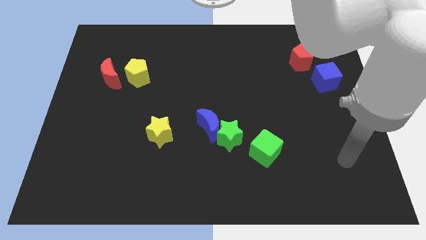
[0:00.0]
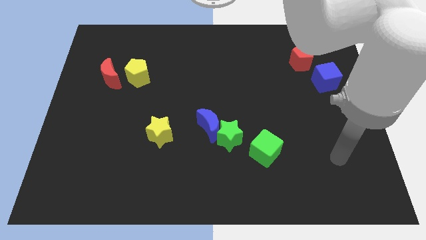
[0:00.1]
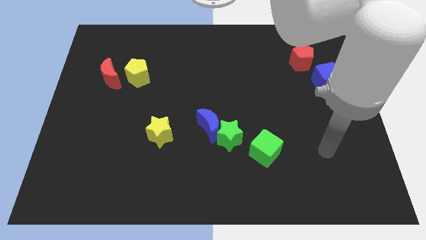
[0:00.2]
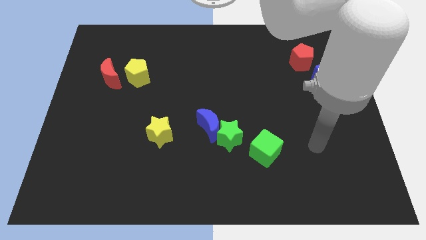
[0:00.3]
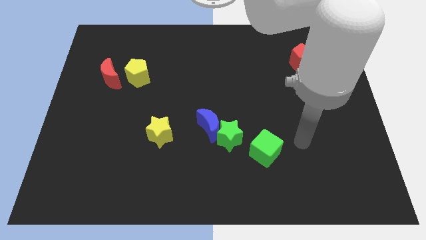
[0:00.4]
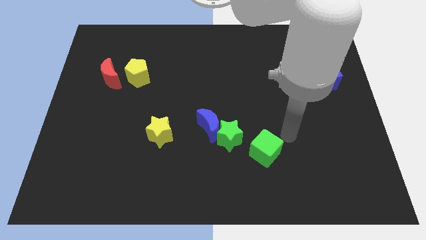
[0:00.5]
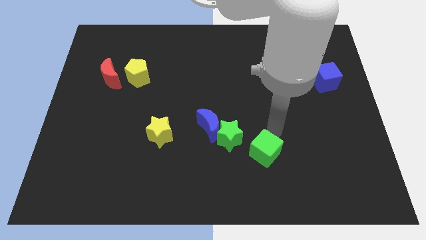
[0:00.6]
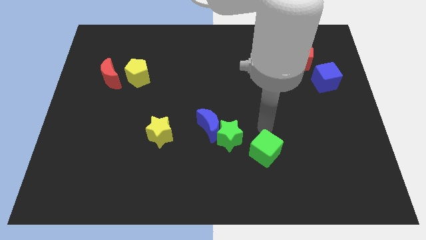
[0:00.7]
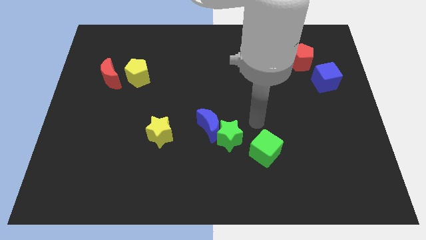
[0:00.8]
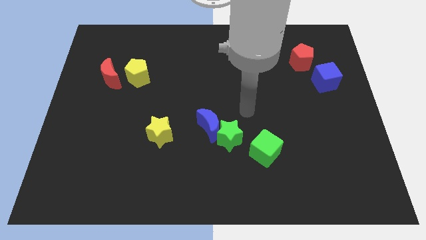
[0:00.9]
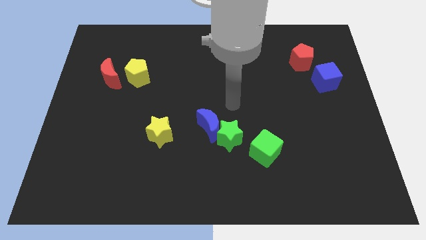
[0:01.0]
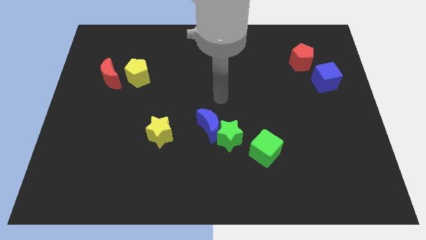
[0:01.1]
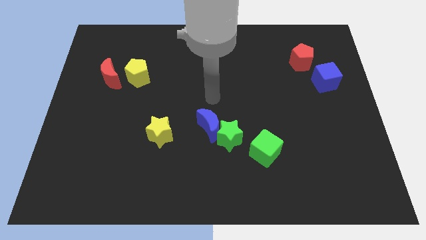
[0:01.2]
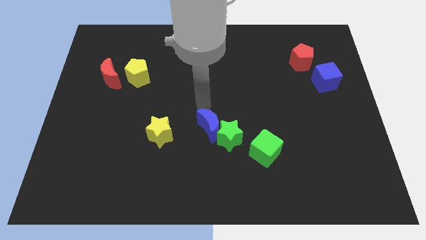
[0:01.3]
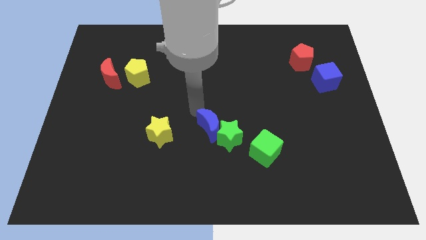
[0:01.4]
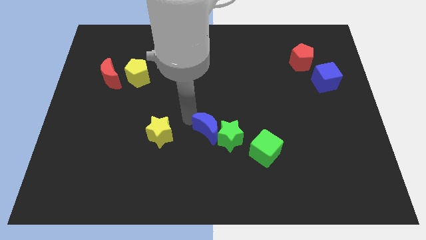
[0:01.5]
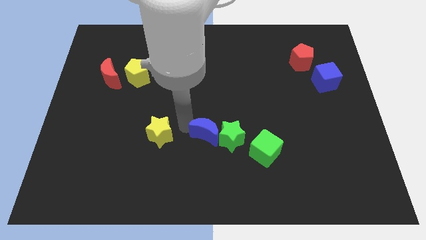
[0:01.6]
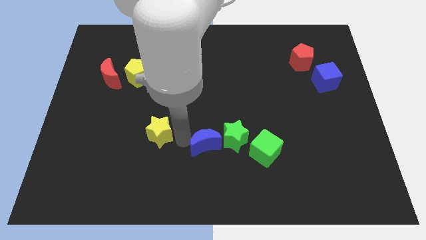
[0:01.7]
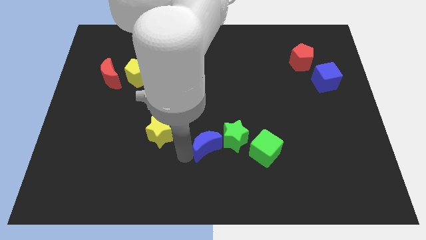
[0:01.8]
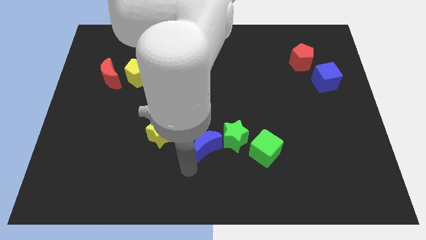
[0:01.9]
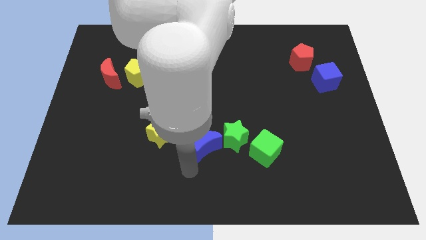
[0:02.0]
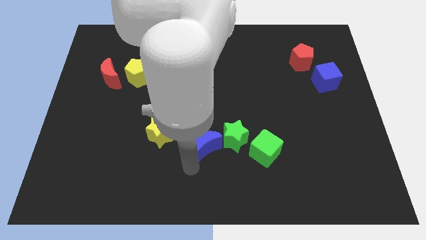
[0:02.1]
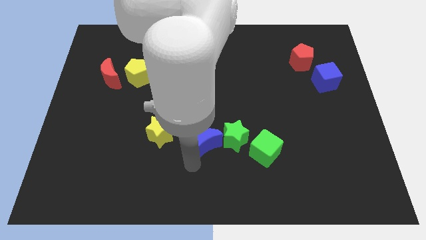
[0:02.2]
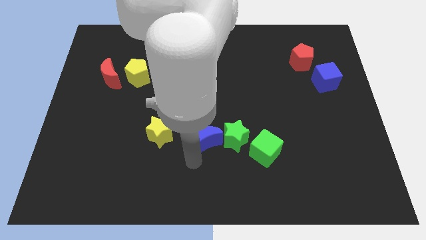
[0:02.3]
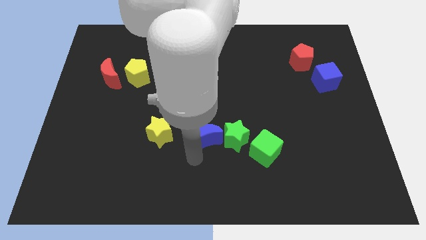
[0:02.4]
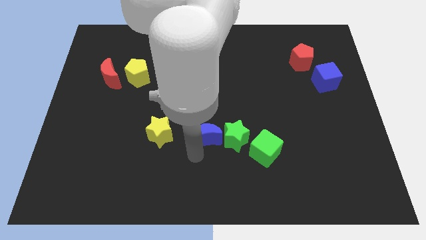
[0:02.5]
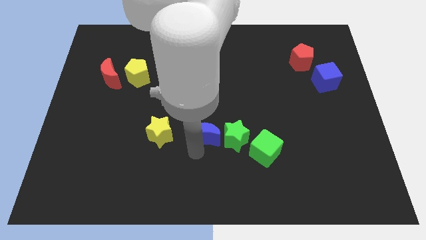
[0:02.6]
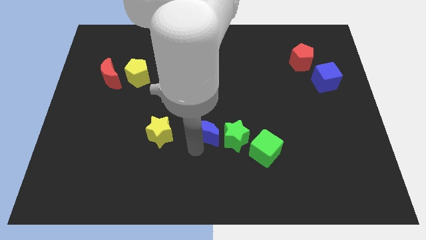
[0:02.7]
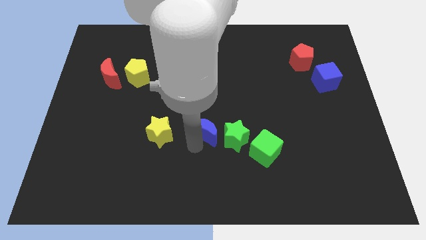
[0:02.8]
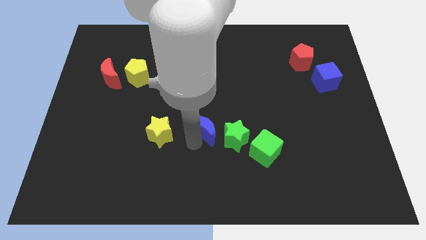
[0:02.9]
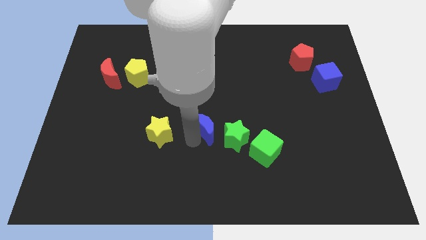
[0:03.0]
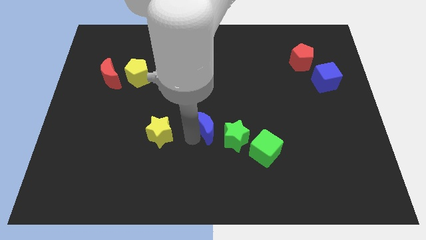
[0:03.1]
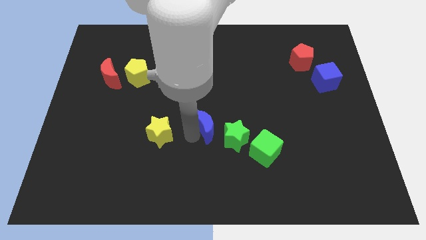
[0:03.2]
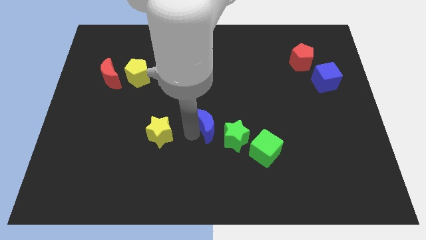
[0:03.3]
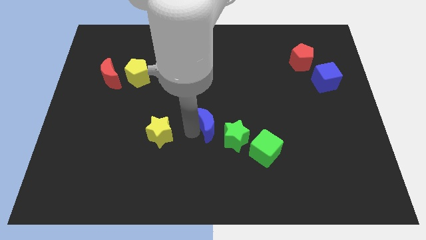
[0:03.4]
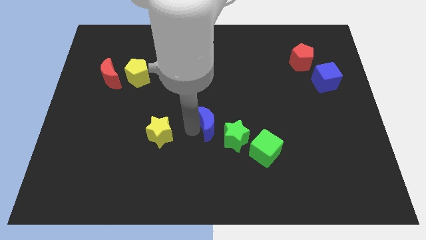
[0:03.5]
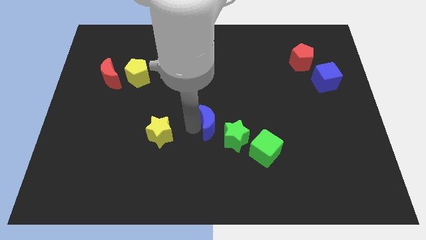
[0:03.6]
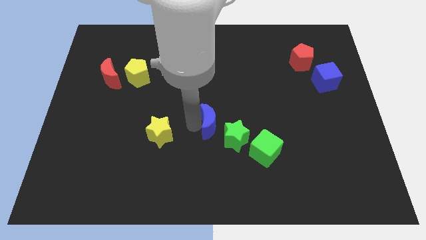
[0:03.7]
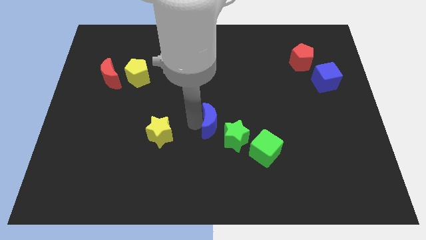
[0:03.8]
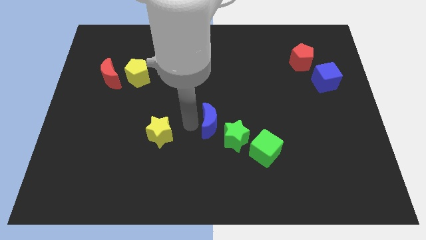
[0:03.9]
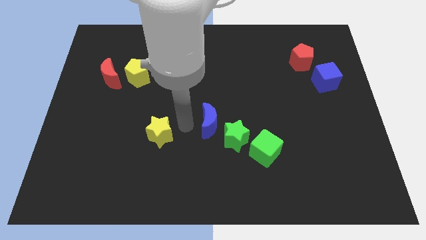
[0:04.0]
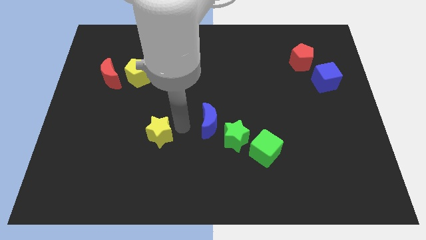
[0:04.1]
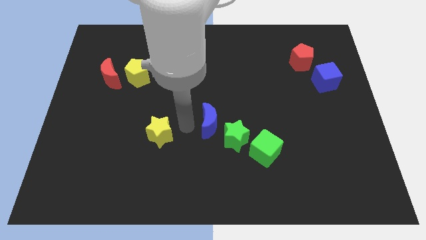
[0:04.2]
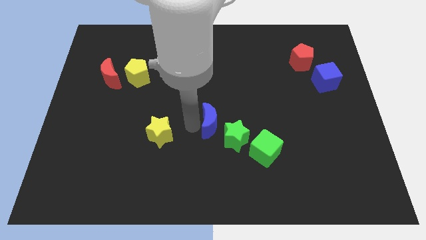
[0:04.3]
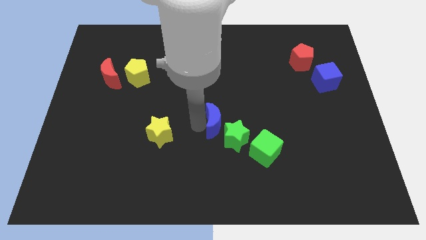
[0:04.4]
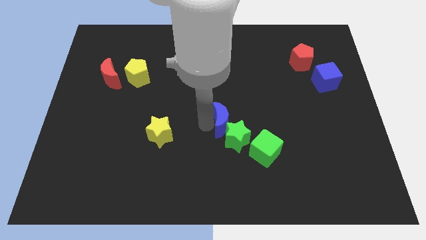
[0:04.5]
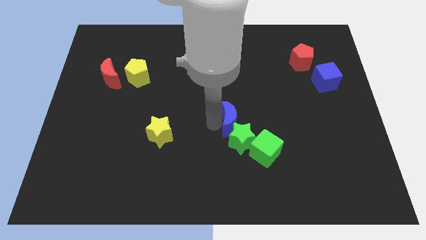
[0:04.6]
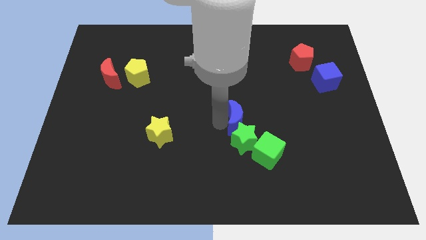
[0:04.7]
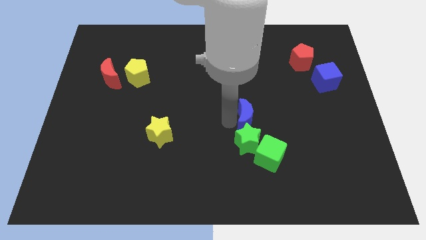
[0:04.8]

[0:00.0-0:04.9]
push the blue moon a little to the right

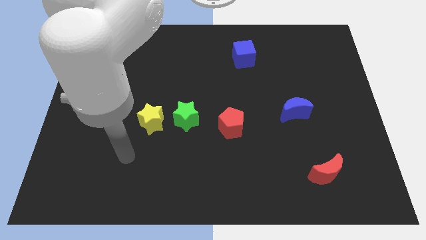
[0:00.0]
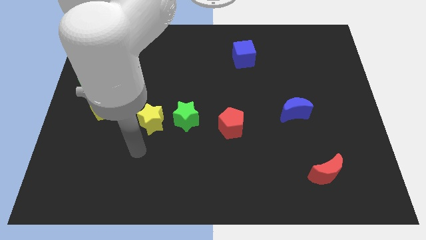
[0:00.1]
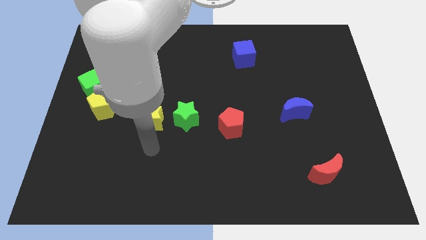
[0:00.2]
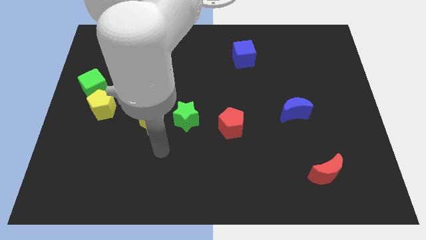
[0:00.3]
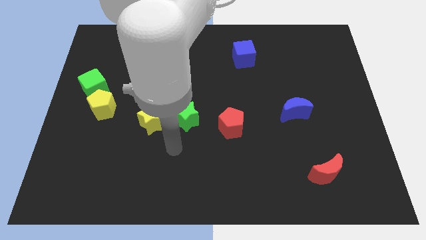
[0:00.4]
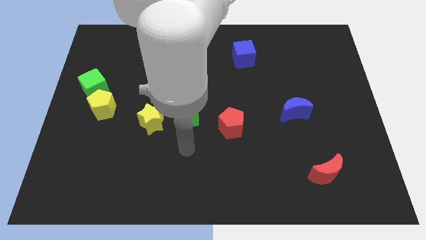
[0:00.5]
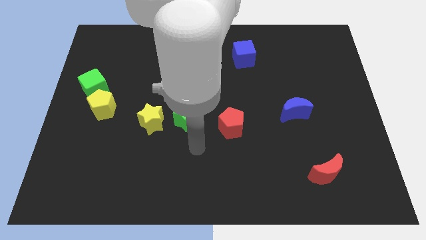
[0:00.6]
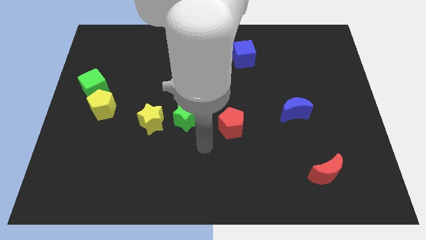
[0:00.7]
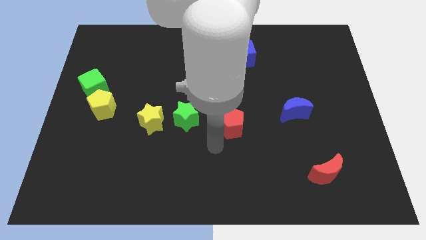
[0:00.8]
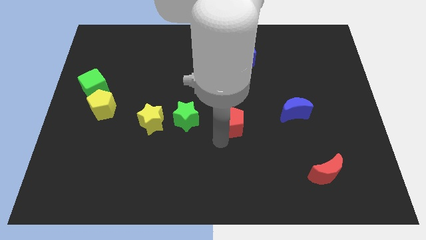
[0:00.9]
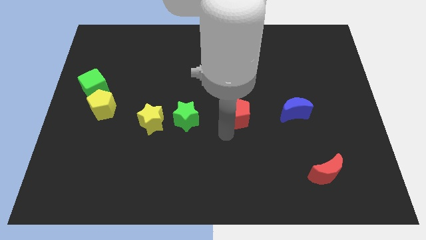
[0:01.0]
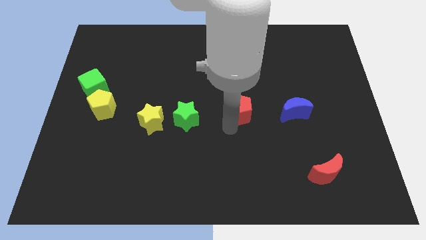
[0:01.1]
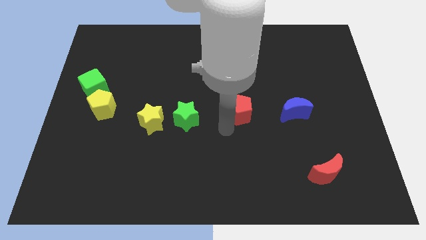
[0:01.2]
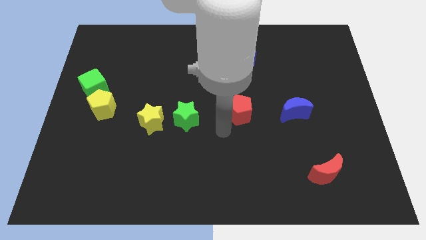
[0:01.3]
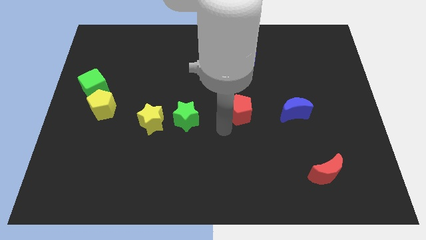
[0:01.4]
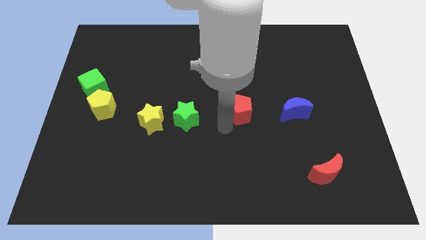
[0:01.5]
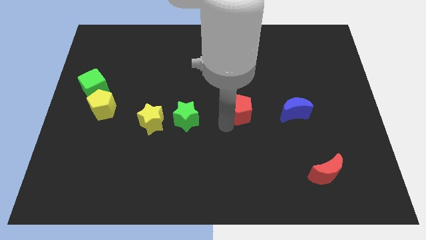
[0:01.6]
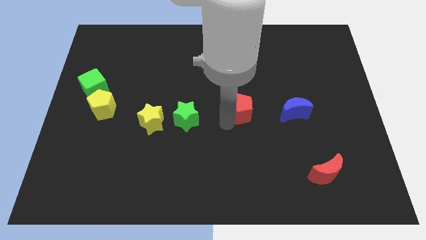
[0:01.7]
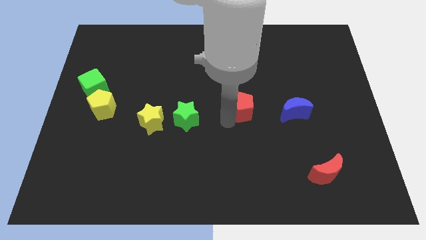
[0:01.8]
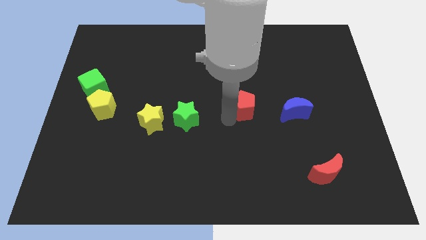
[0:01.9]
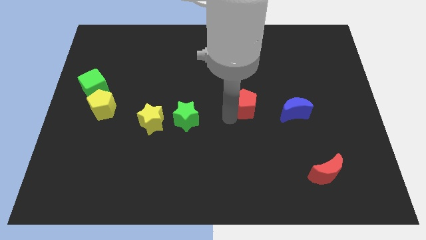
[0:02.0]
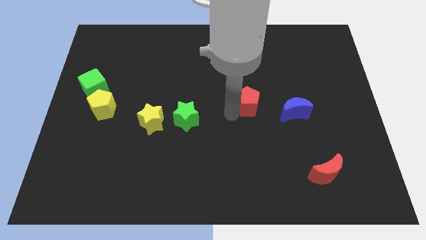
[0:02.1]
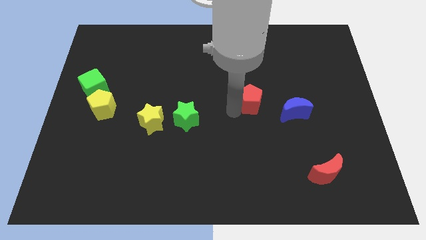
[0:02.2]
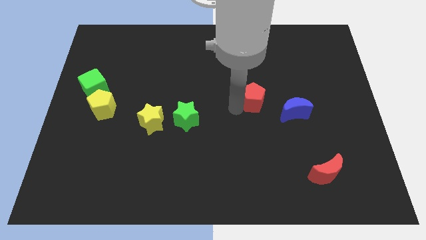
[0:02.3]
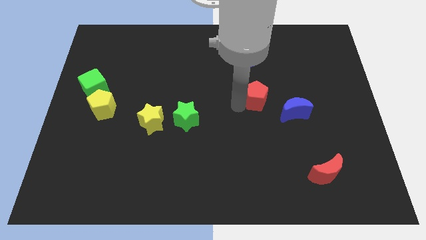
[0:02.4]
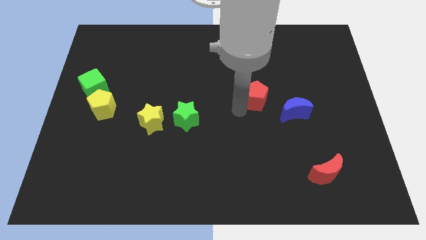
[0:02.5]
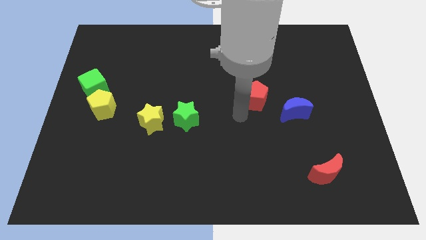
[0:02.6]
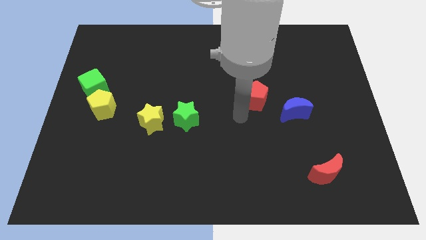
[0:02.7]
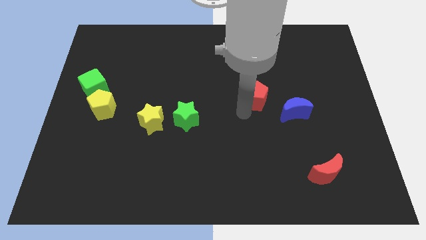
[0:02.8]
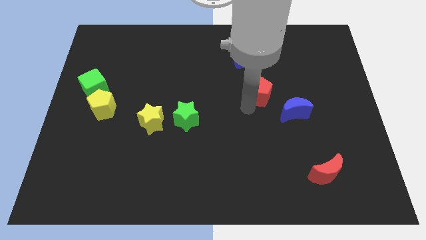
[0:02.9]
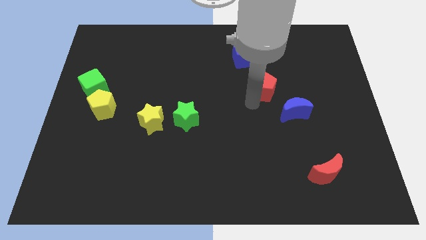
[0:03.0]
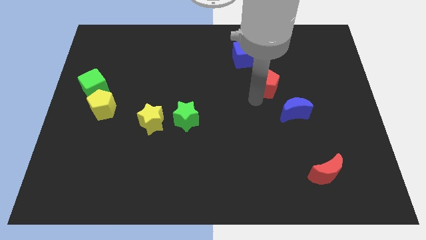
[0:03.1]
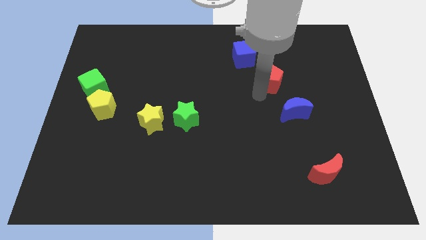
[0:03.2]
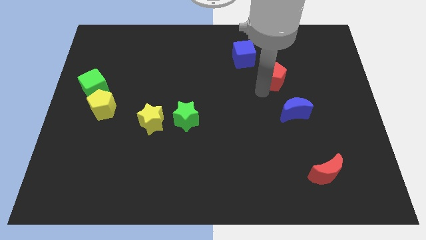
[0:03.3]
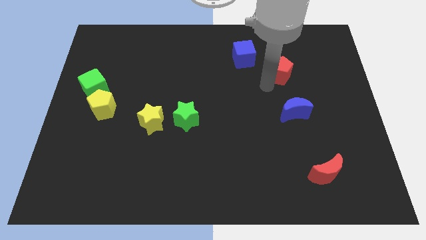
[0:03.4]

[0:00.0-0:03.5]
push the red pentagon upwards and to the right diagonally

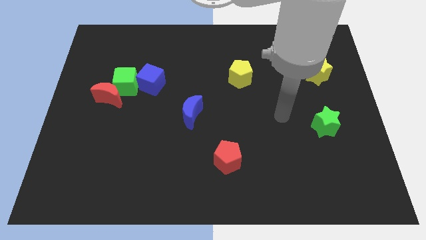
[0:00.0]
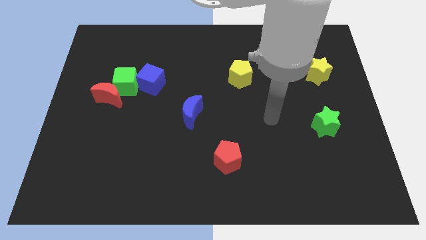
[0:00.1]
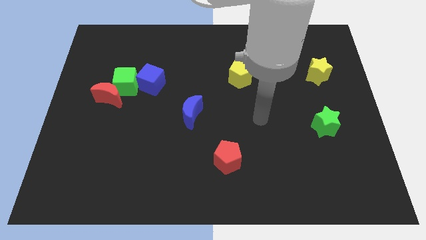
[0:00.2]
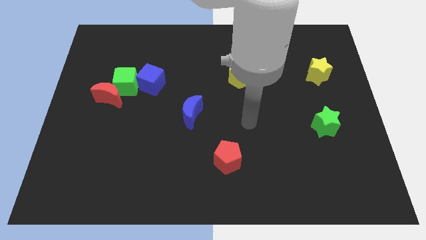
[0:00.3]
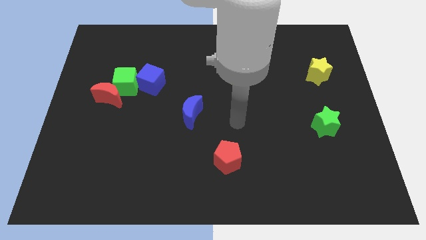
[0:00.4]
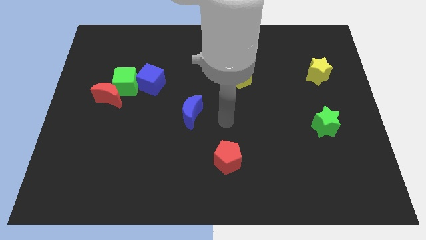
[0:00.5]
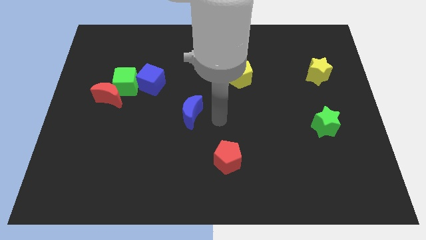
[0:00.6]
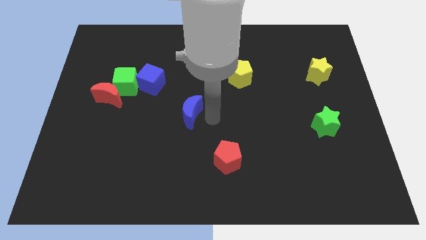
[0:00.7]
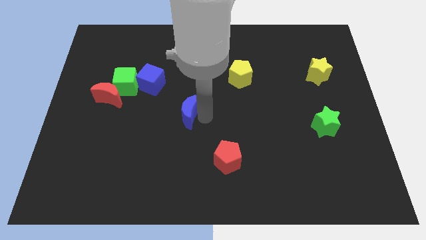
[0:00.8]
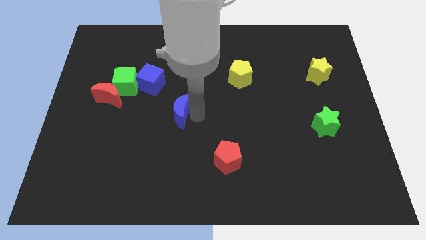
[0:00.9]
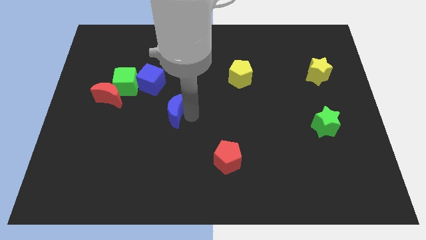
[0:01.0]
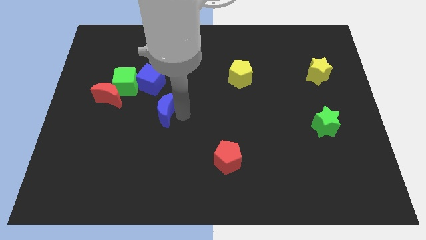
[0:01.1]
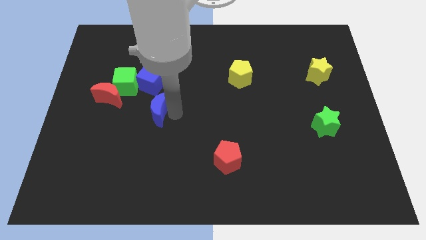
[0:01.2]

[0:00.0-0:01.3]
move the blue moon left slightly
